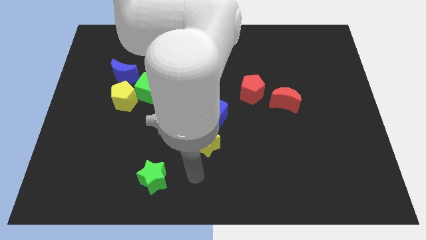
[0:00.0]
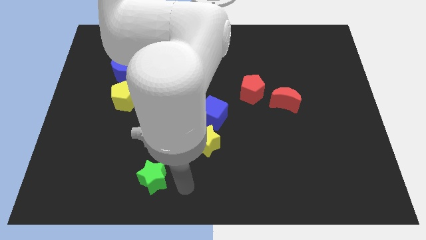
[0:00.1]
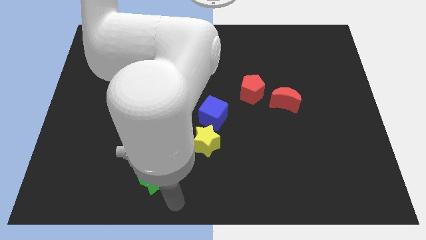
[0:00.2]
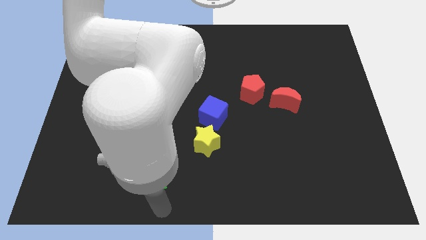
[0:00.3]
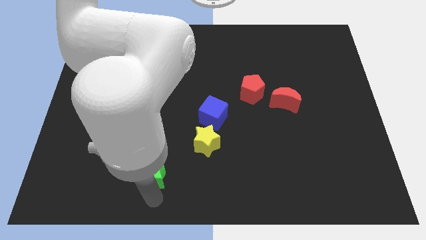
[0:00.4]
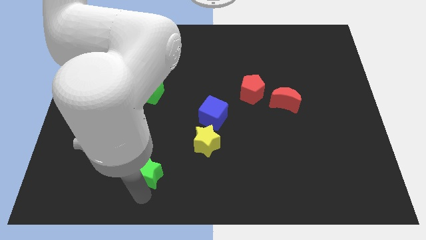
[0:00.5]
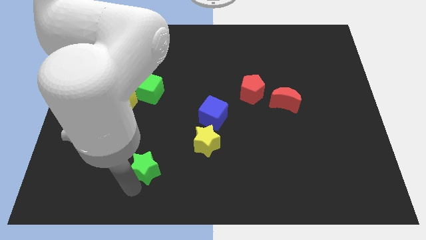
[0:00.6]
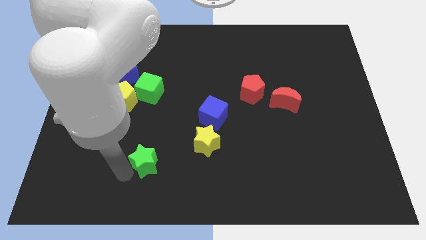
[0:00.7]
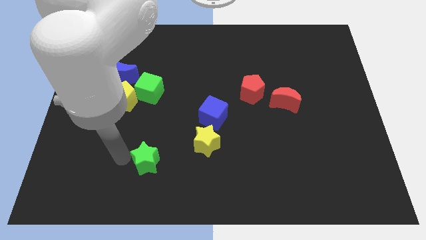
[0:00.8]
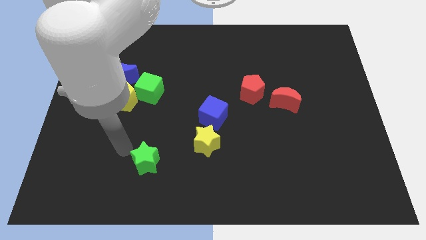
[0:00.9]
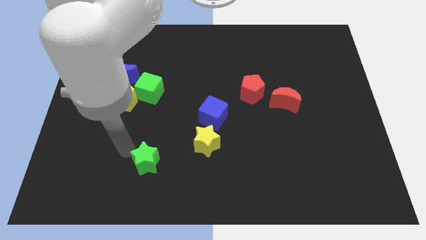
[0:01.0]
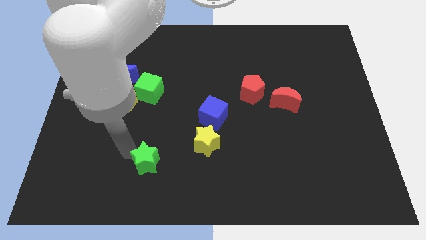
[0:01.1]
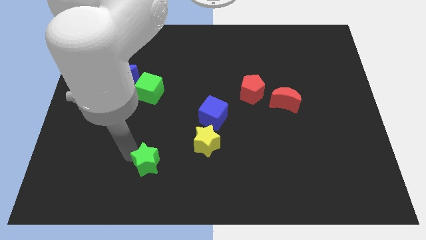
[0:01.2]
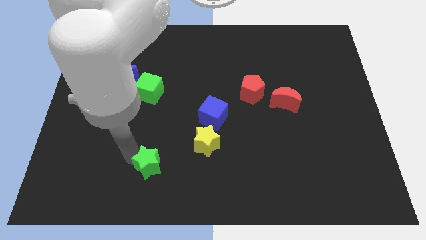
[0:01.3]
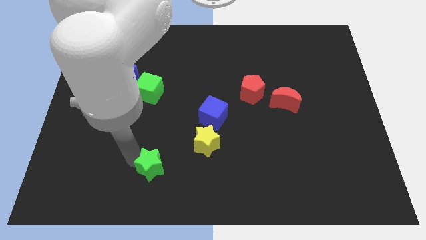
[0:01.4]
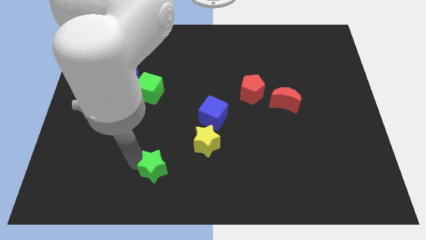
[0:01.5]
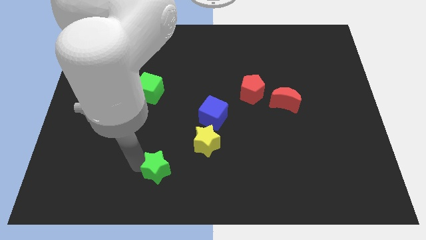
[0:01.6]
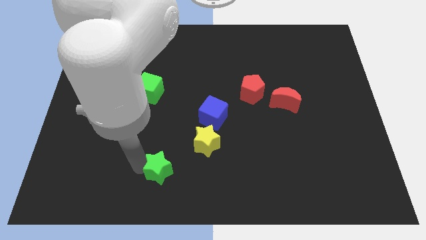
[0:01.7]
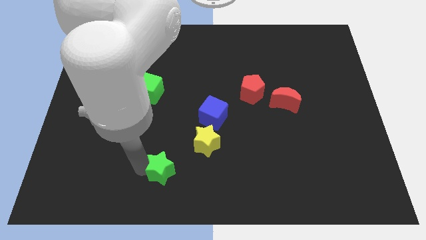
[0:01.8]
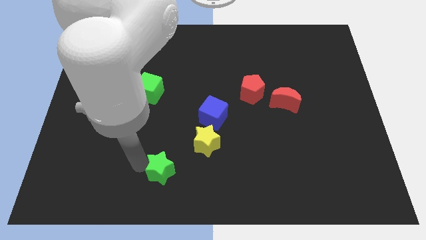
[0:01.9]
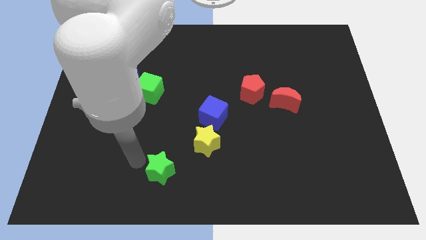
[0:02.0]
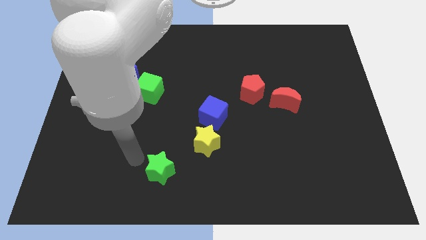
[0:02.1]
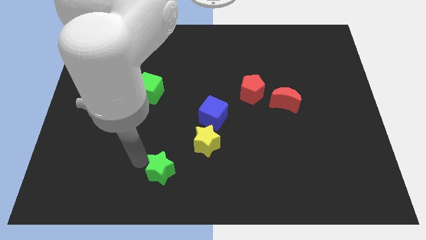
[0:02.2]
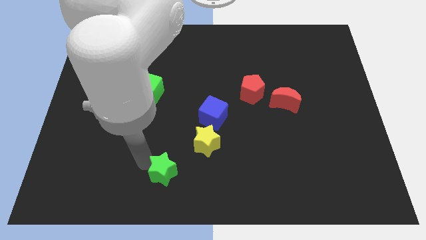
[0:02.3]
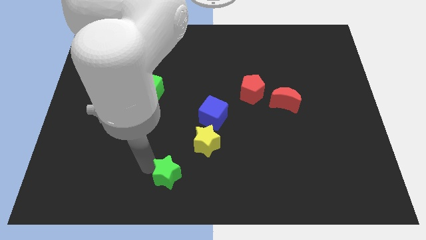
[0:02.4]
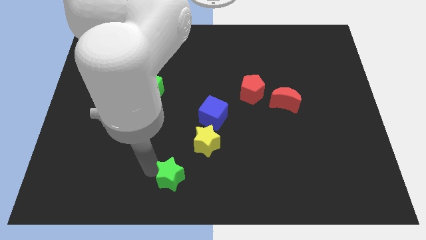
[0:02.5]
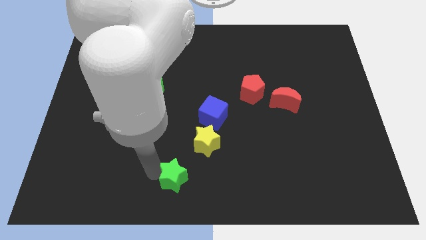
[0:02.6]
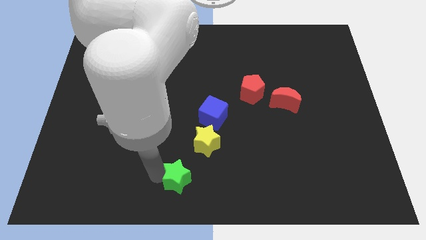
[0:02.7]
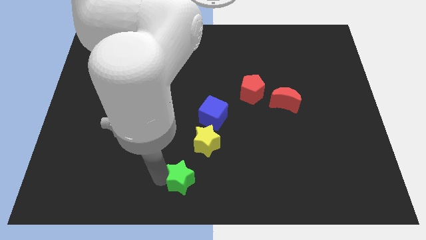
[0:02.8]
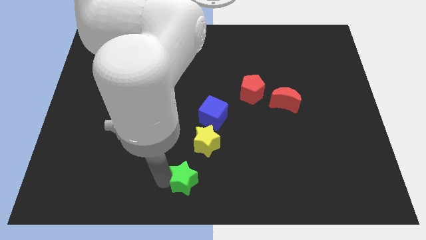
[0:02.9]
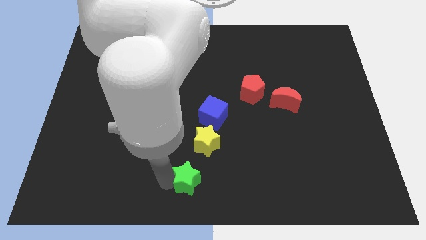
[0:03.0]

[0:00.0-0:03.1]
move the green star right a little

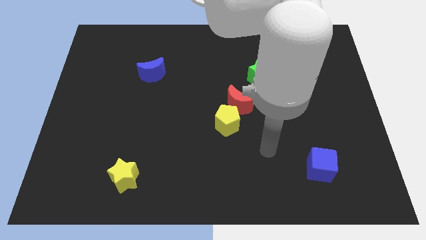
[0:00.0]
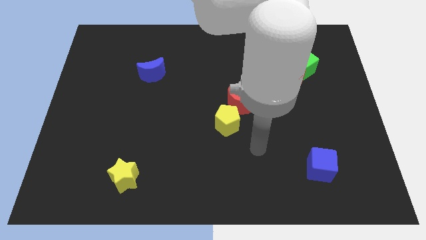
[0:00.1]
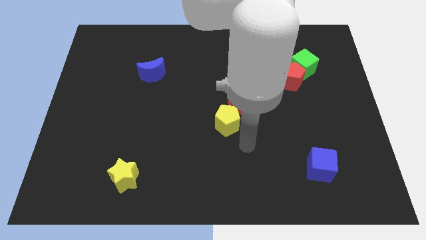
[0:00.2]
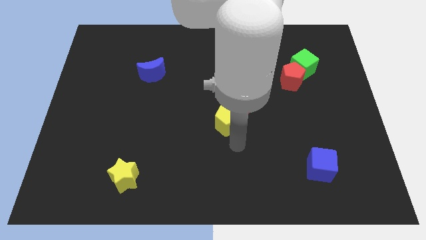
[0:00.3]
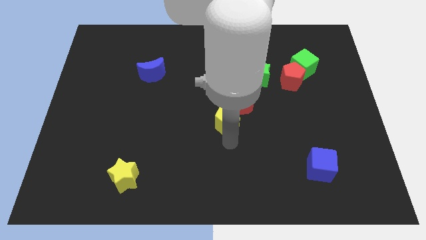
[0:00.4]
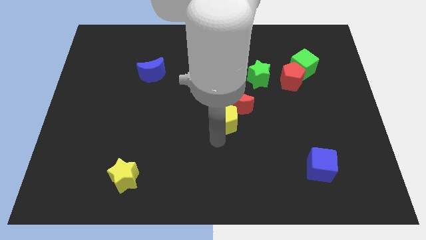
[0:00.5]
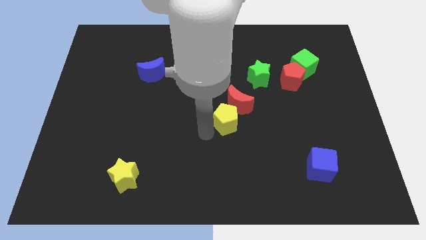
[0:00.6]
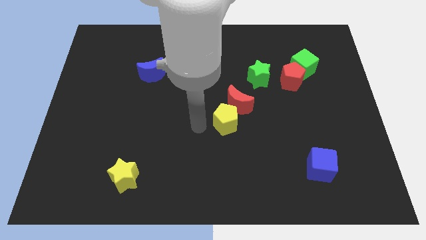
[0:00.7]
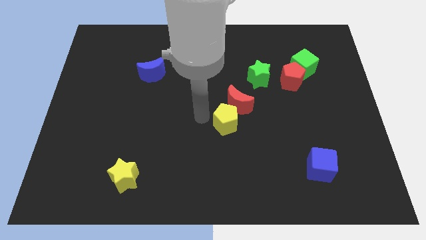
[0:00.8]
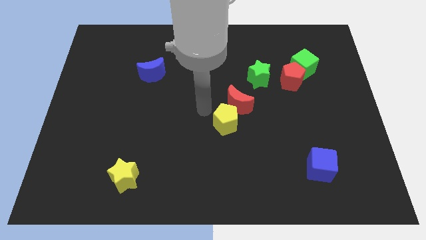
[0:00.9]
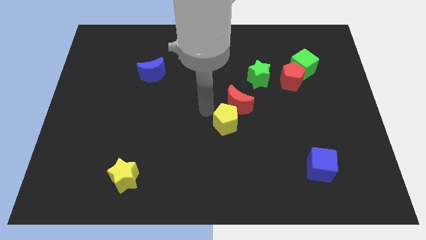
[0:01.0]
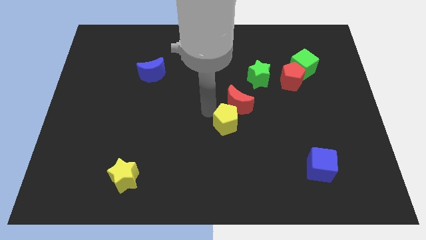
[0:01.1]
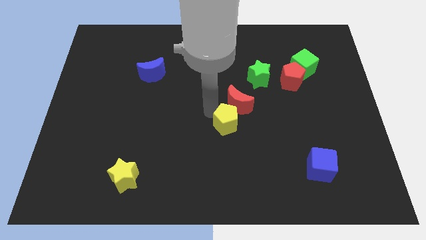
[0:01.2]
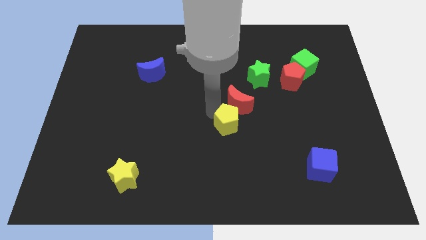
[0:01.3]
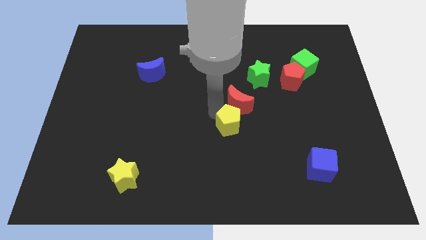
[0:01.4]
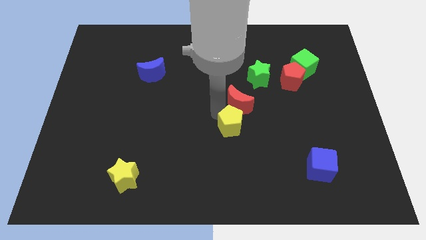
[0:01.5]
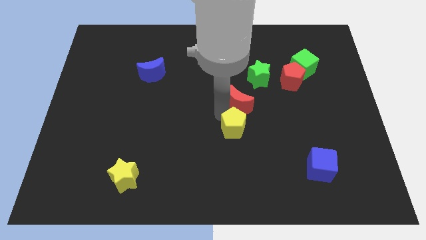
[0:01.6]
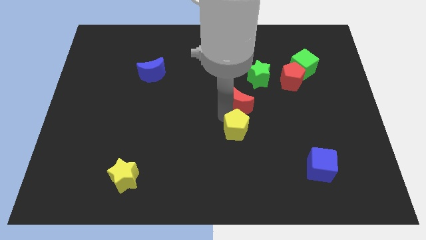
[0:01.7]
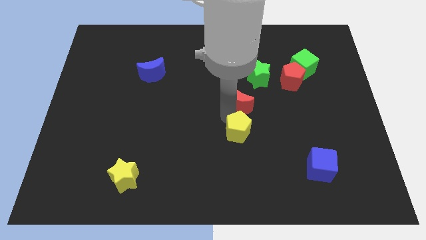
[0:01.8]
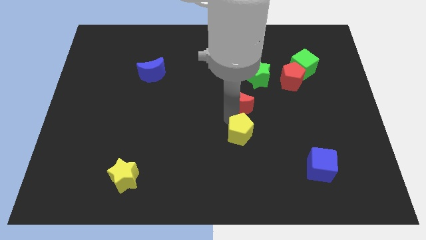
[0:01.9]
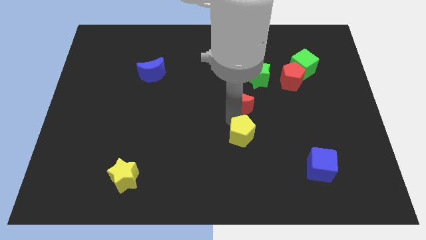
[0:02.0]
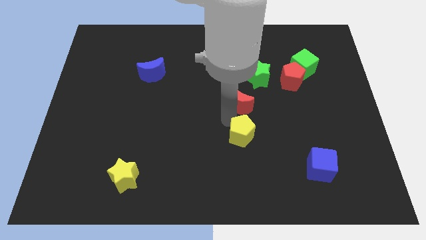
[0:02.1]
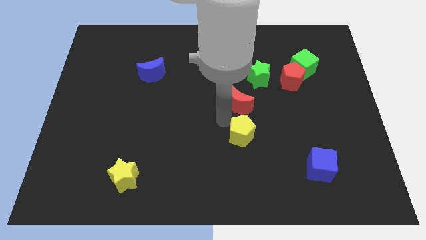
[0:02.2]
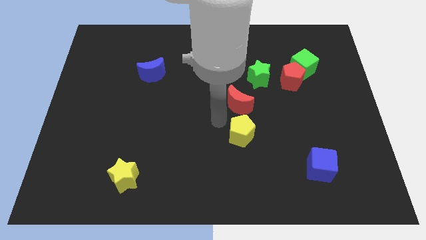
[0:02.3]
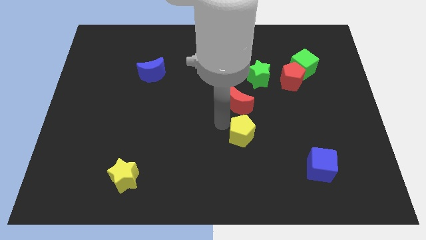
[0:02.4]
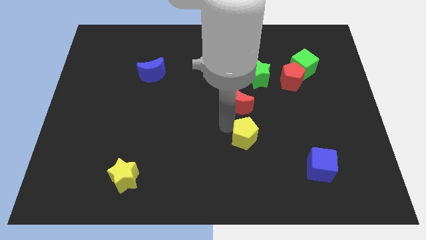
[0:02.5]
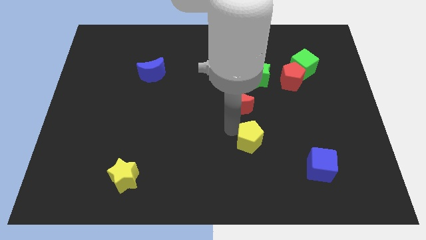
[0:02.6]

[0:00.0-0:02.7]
slightly slide the yellow pentagon downwards and right diagonally

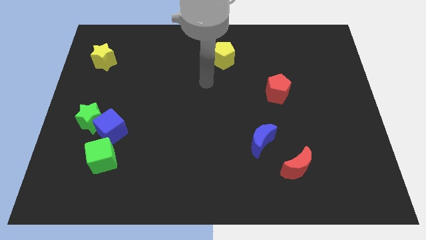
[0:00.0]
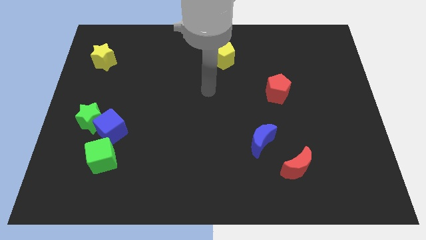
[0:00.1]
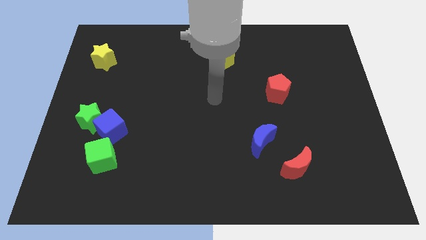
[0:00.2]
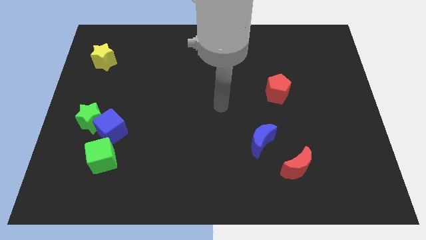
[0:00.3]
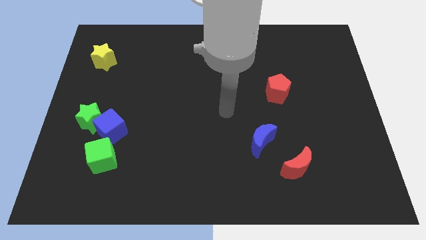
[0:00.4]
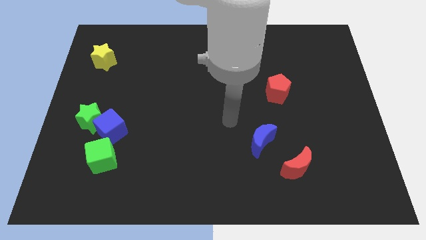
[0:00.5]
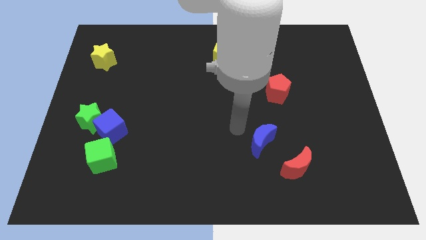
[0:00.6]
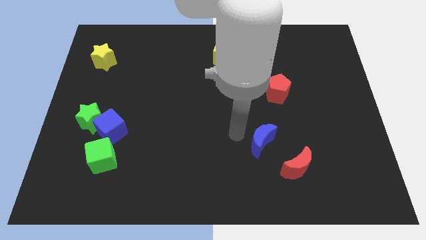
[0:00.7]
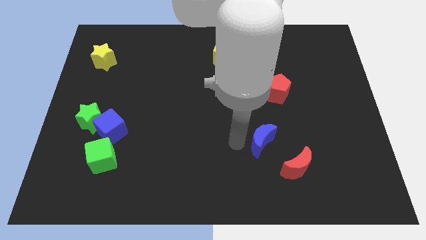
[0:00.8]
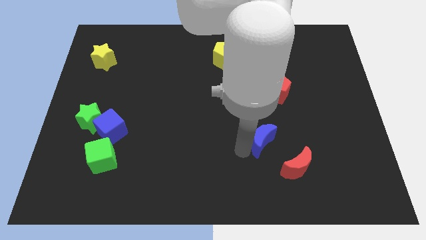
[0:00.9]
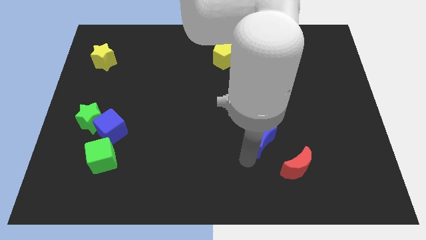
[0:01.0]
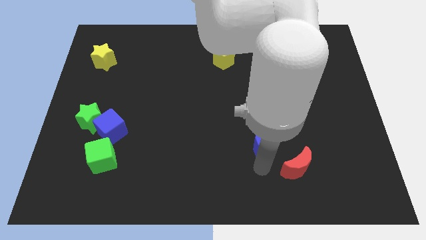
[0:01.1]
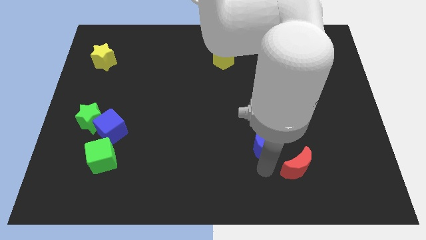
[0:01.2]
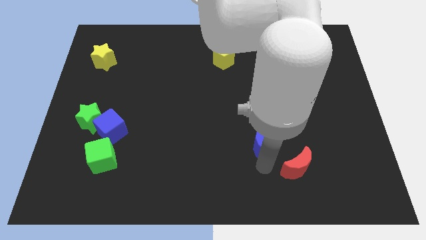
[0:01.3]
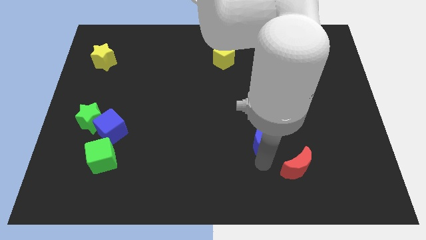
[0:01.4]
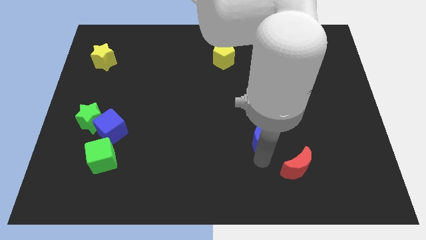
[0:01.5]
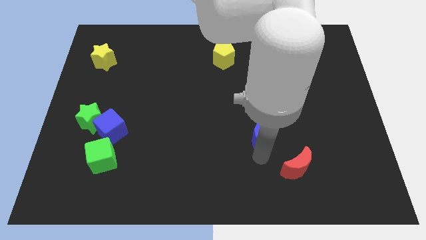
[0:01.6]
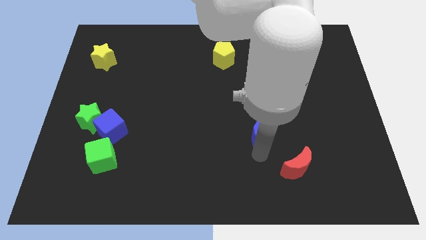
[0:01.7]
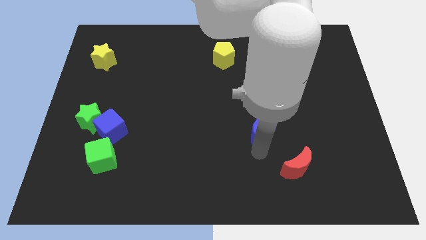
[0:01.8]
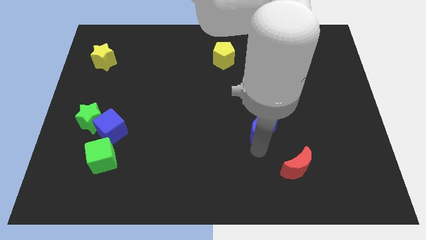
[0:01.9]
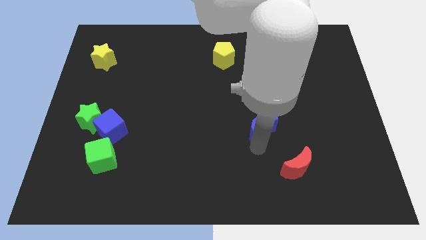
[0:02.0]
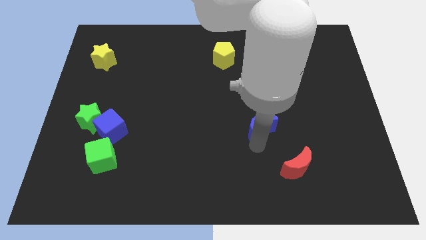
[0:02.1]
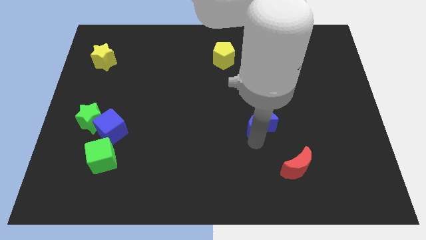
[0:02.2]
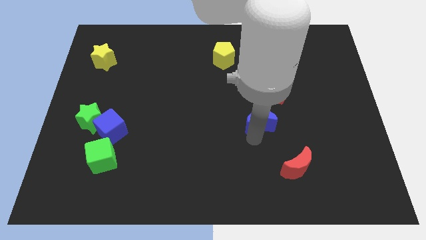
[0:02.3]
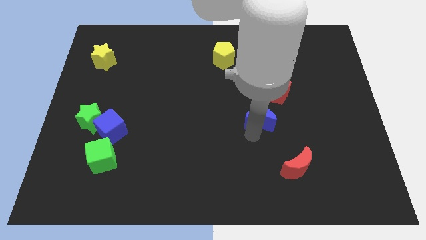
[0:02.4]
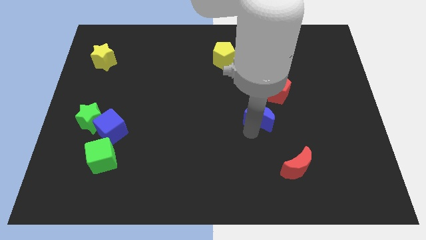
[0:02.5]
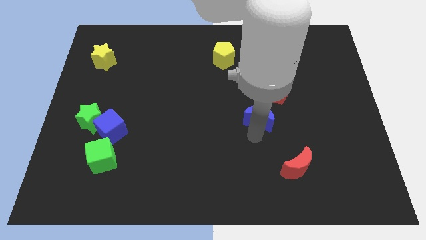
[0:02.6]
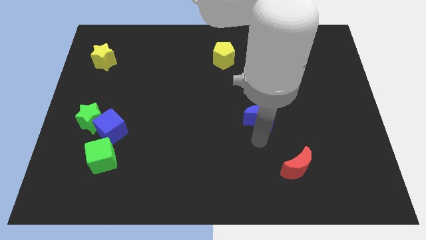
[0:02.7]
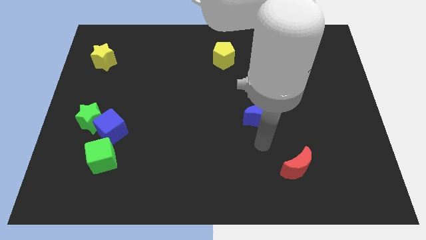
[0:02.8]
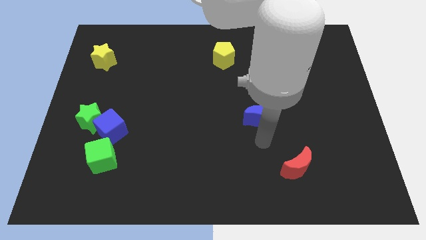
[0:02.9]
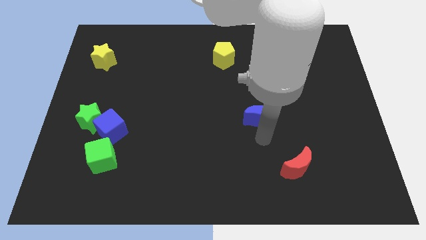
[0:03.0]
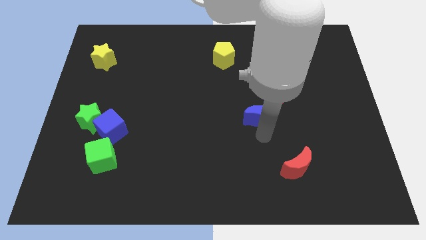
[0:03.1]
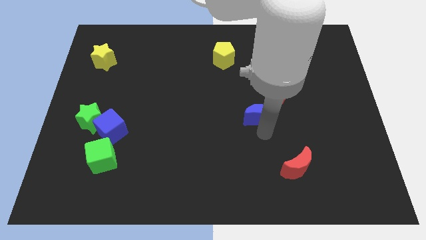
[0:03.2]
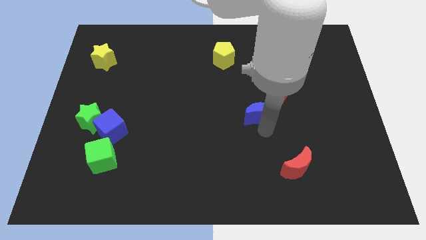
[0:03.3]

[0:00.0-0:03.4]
slightly move the blue moon upwards
